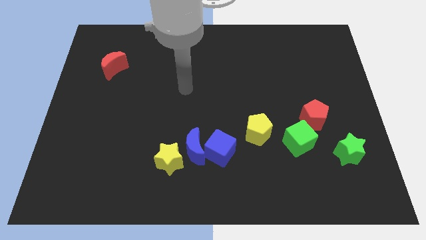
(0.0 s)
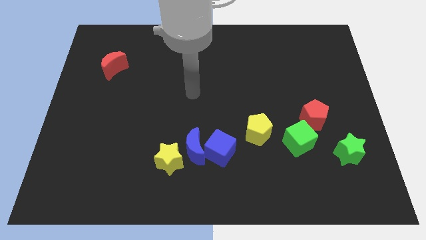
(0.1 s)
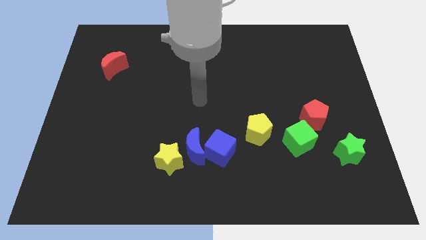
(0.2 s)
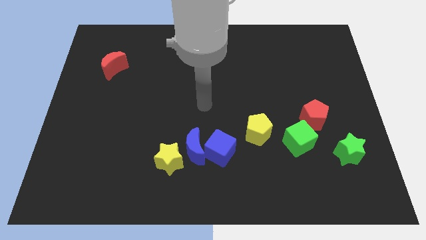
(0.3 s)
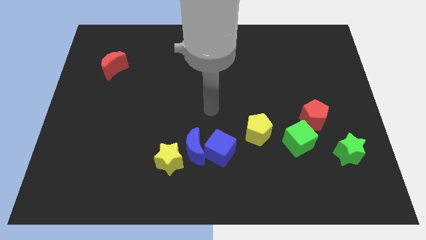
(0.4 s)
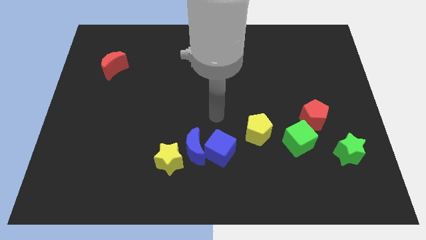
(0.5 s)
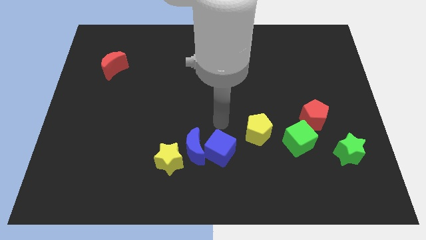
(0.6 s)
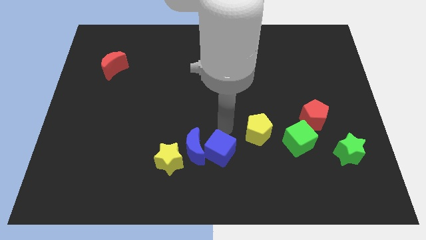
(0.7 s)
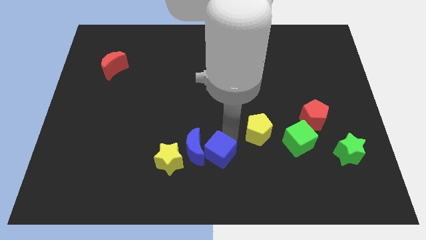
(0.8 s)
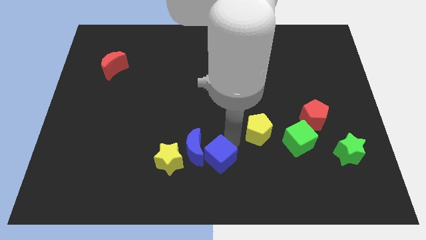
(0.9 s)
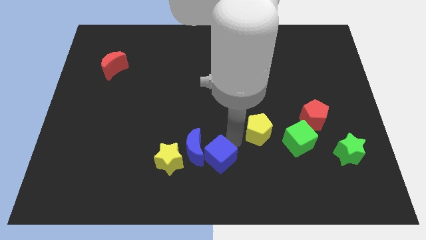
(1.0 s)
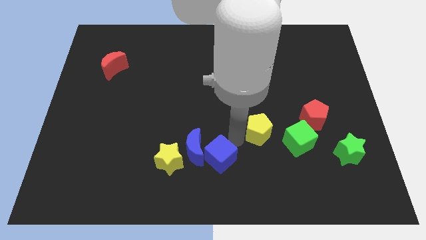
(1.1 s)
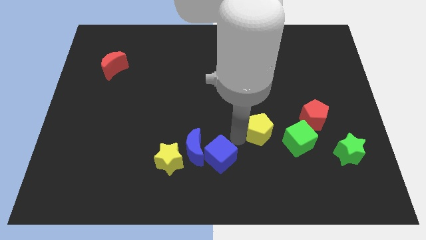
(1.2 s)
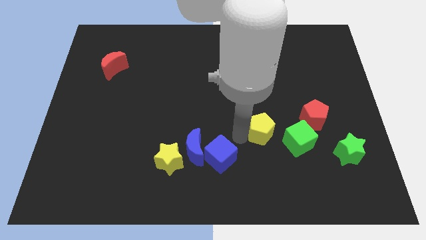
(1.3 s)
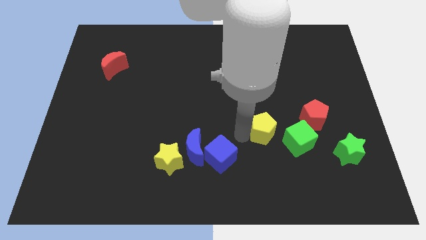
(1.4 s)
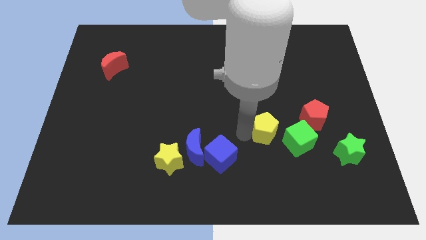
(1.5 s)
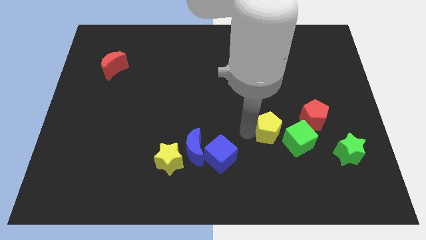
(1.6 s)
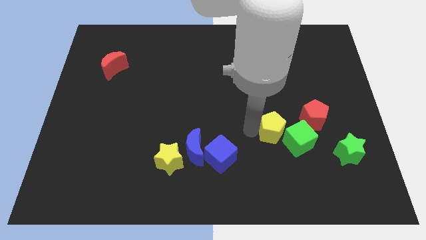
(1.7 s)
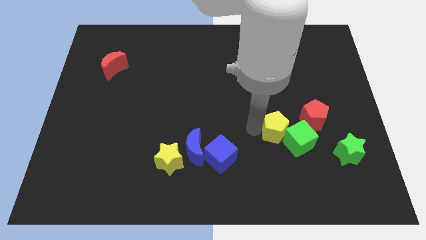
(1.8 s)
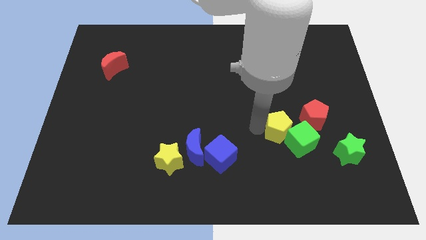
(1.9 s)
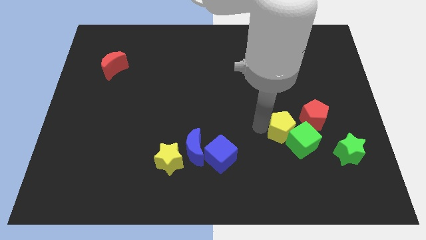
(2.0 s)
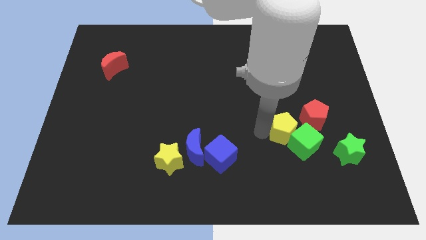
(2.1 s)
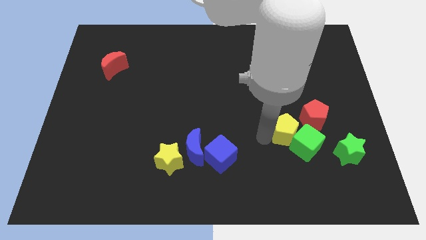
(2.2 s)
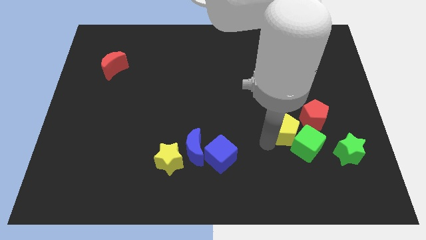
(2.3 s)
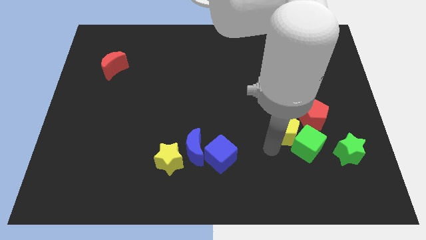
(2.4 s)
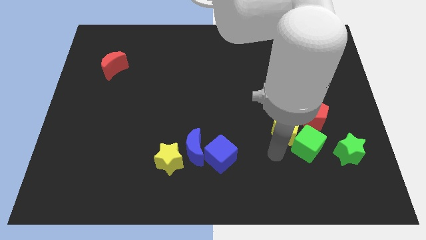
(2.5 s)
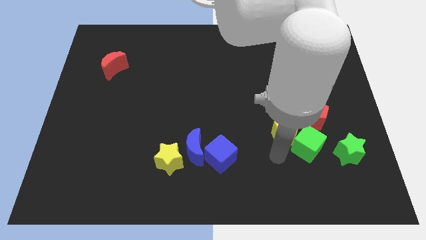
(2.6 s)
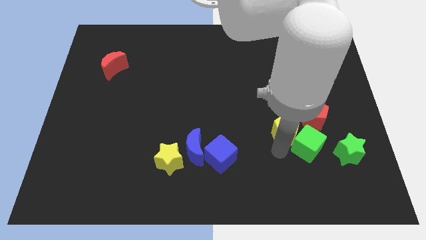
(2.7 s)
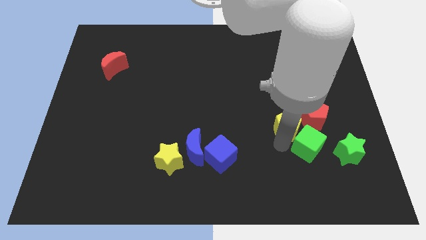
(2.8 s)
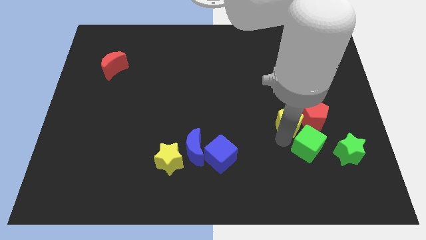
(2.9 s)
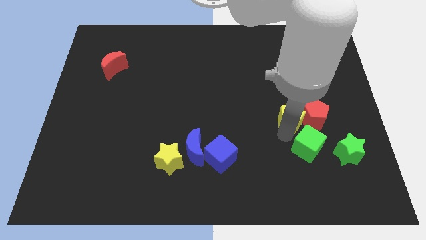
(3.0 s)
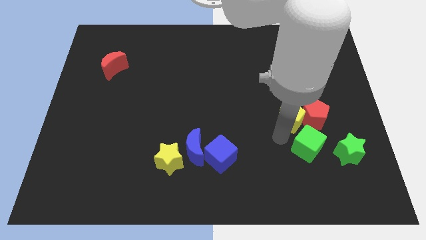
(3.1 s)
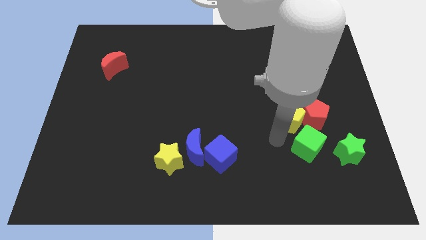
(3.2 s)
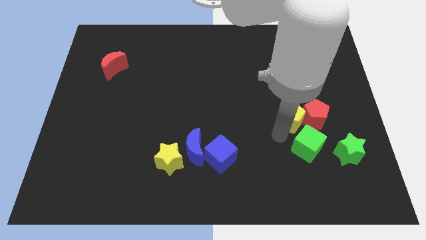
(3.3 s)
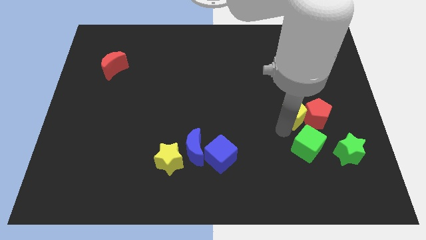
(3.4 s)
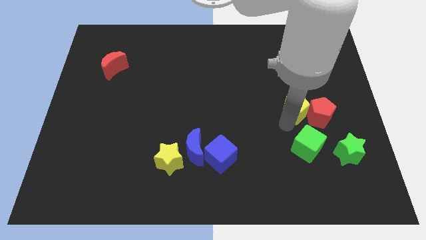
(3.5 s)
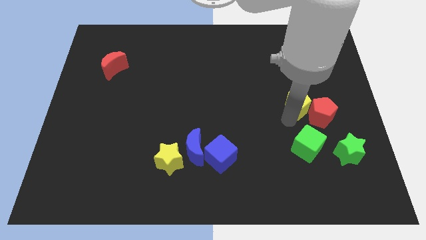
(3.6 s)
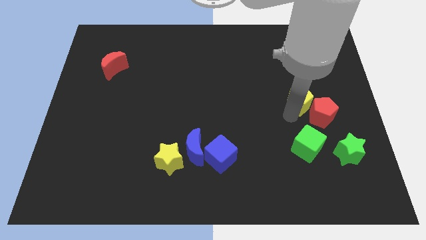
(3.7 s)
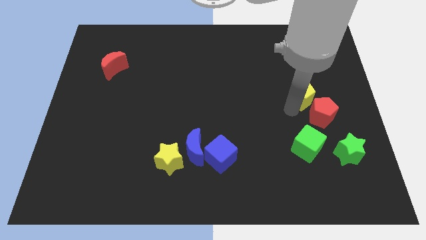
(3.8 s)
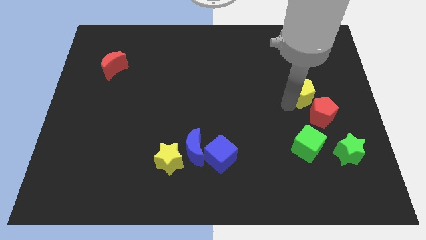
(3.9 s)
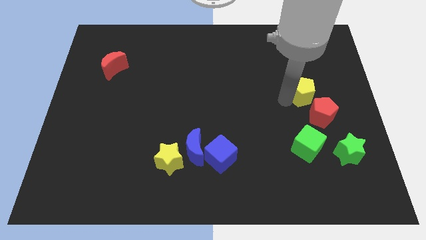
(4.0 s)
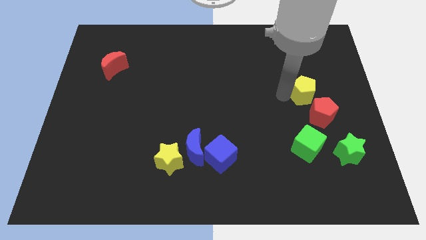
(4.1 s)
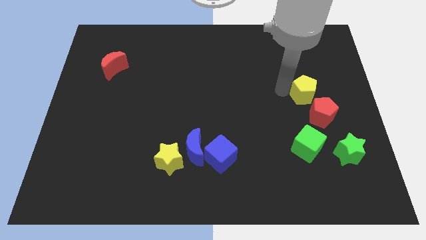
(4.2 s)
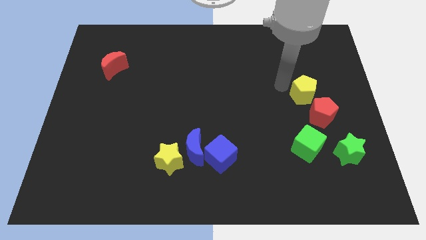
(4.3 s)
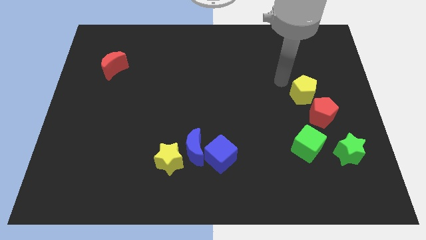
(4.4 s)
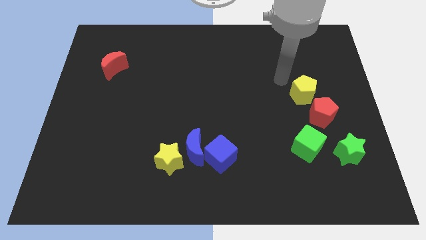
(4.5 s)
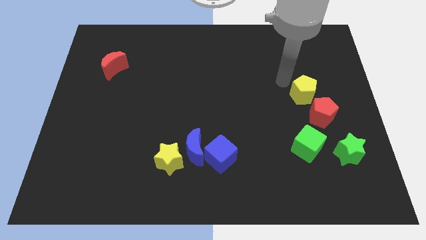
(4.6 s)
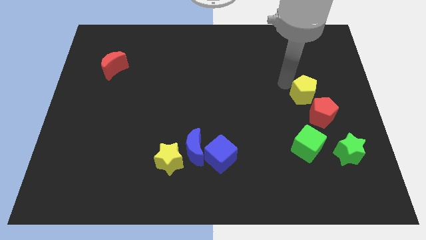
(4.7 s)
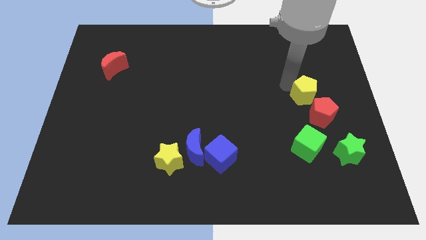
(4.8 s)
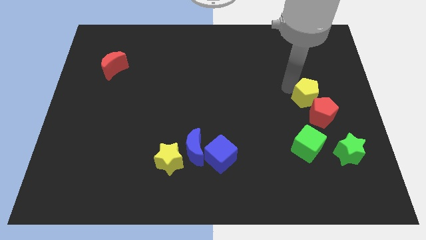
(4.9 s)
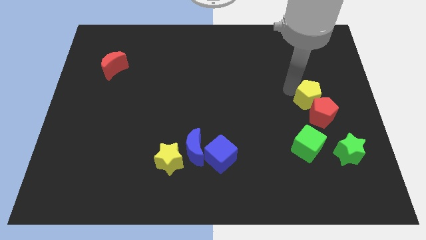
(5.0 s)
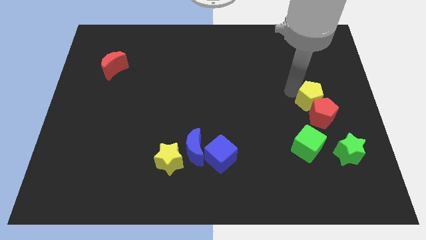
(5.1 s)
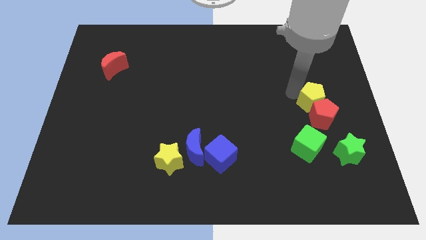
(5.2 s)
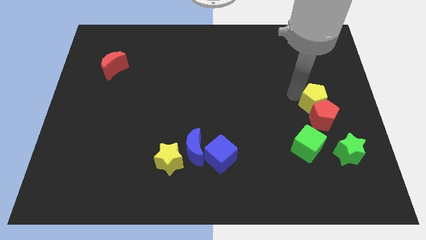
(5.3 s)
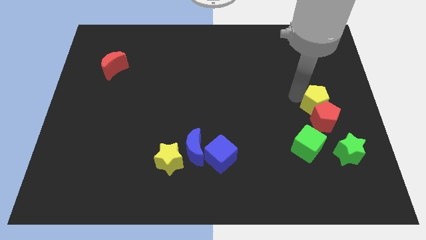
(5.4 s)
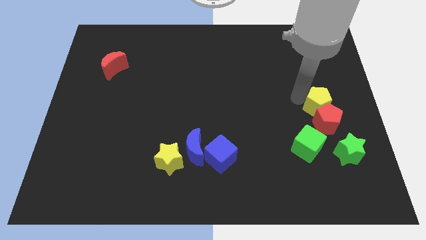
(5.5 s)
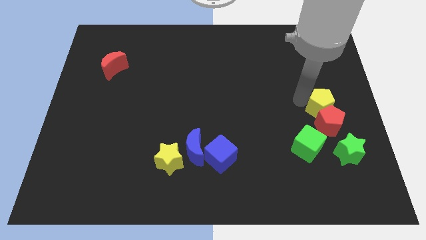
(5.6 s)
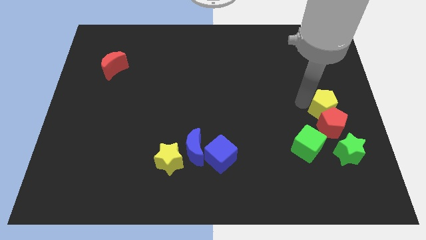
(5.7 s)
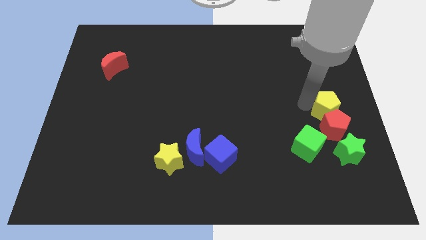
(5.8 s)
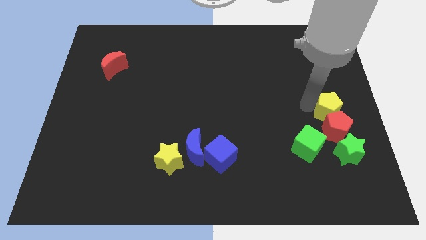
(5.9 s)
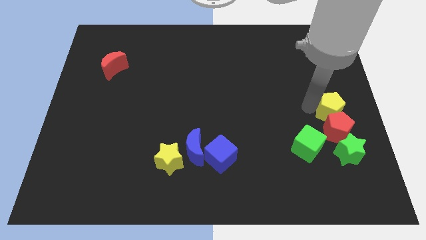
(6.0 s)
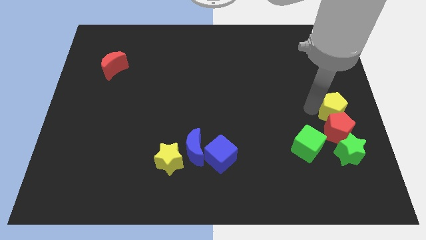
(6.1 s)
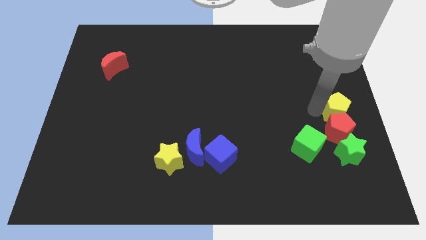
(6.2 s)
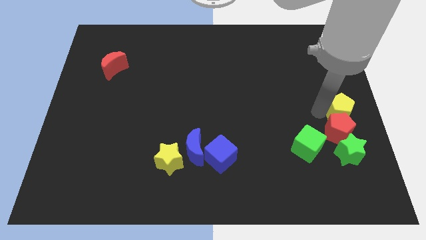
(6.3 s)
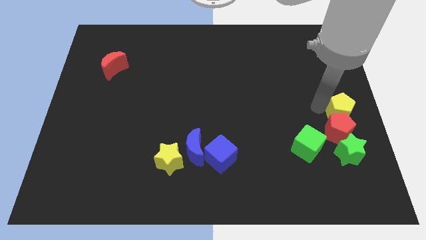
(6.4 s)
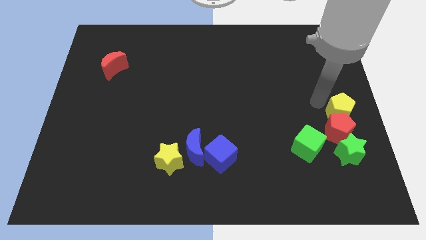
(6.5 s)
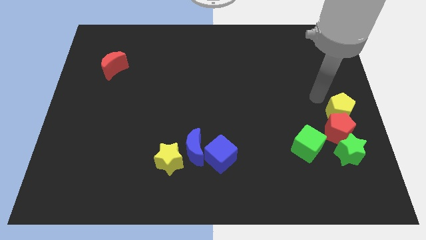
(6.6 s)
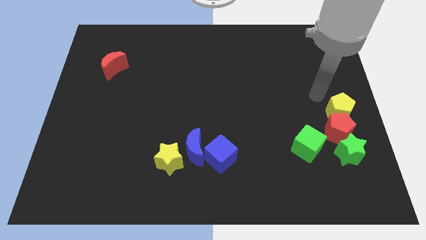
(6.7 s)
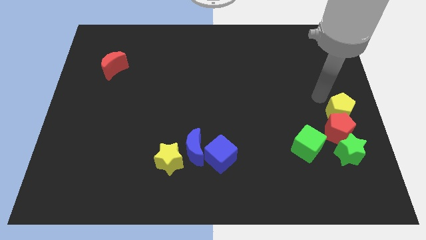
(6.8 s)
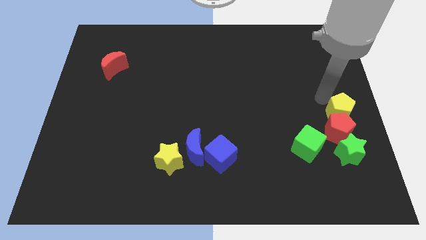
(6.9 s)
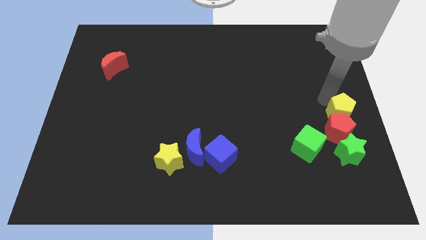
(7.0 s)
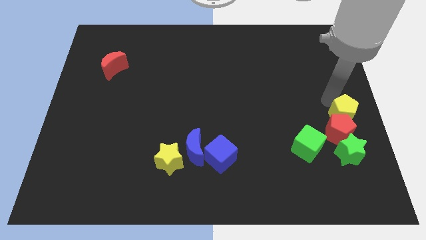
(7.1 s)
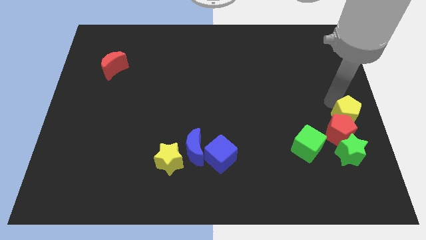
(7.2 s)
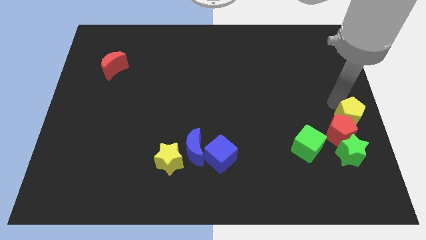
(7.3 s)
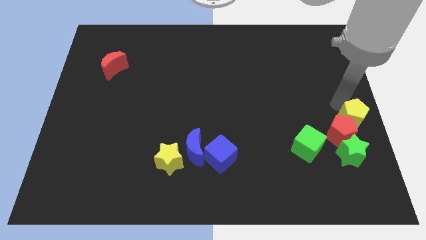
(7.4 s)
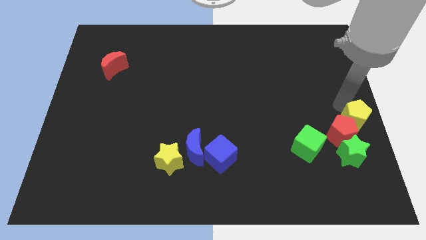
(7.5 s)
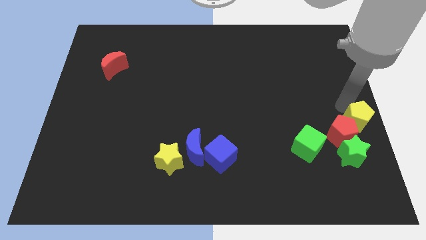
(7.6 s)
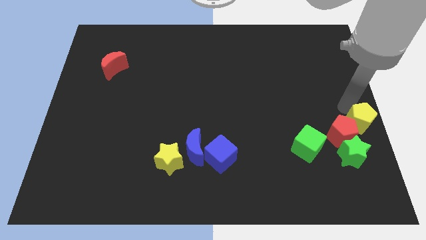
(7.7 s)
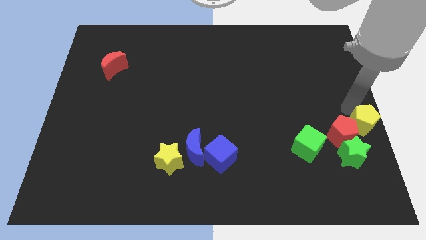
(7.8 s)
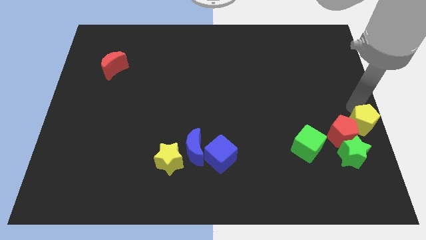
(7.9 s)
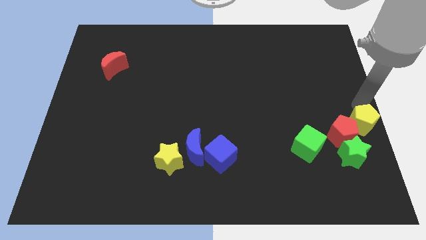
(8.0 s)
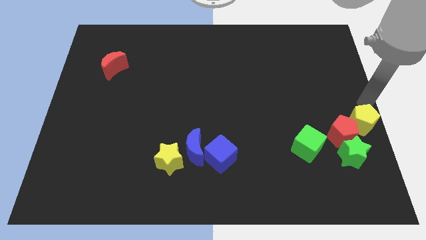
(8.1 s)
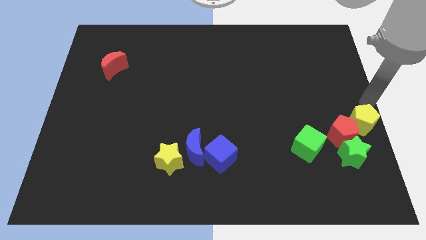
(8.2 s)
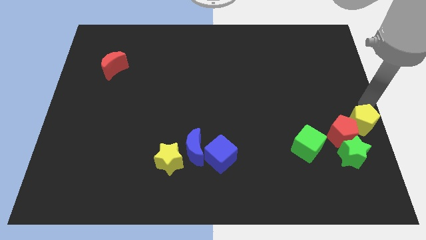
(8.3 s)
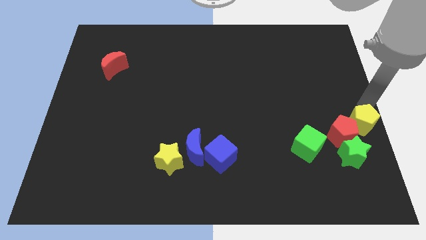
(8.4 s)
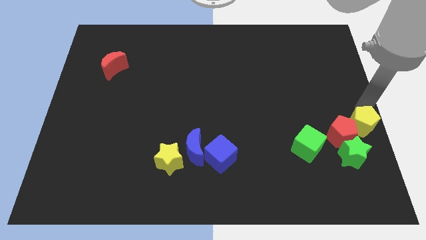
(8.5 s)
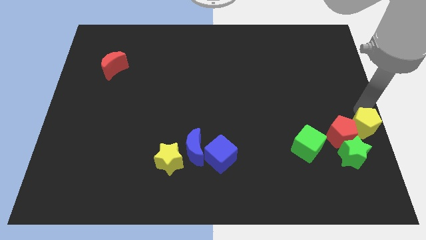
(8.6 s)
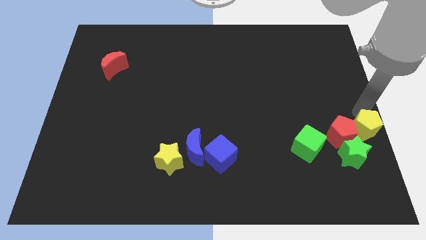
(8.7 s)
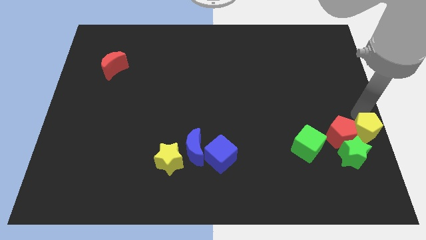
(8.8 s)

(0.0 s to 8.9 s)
slide the yellow pentagon to the right of the green cube
